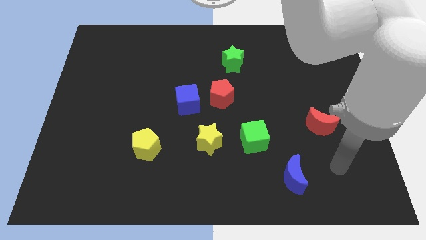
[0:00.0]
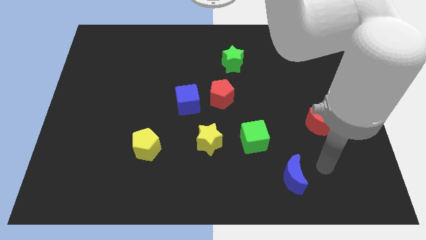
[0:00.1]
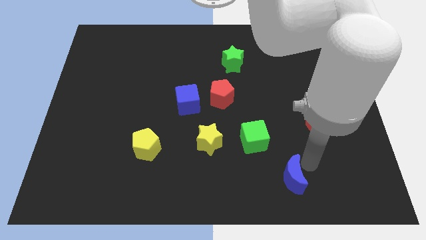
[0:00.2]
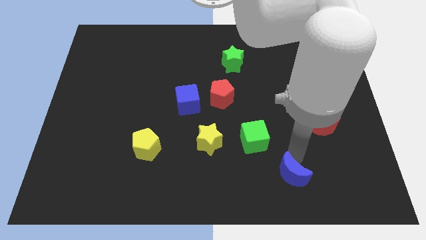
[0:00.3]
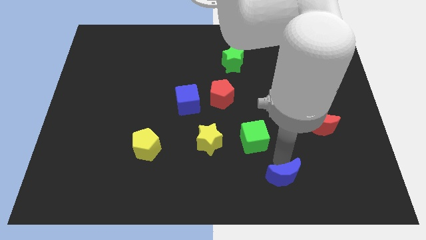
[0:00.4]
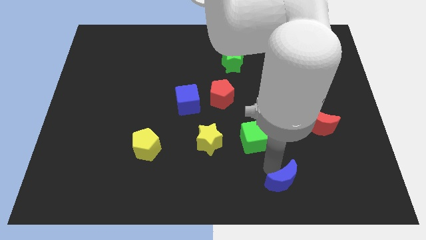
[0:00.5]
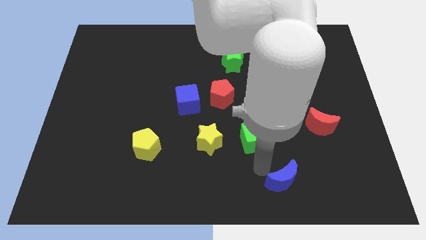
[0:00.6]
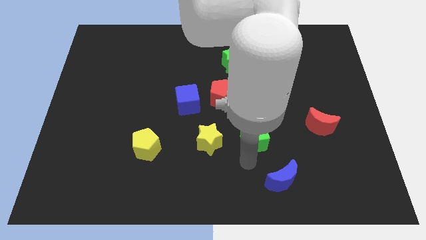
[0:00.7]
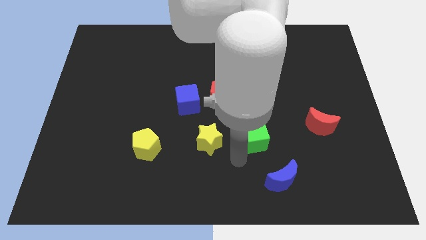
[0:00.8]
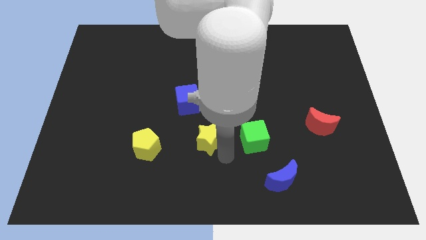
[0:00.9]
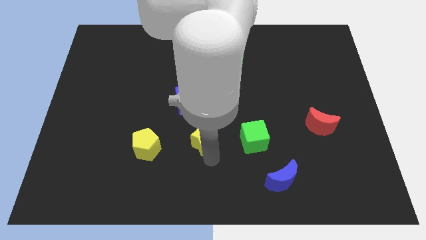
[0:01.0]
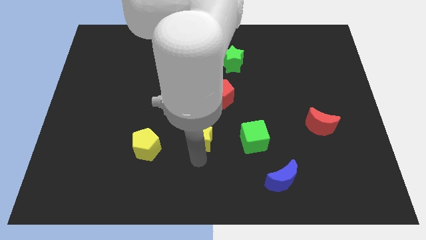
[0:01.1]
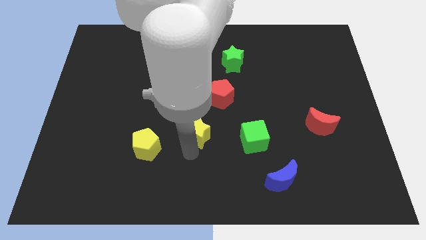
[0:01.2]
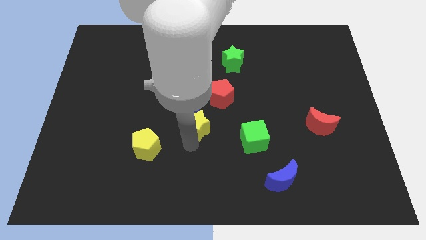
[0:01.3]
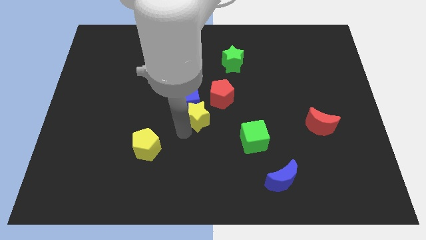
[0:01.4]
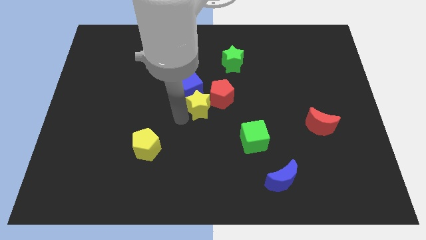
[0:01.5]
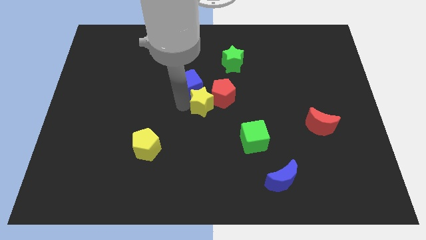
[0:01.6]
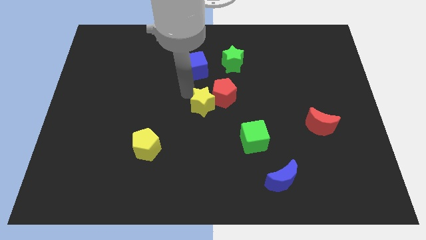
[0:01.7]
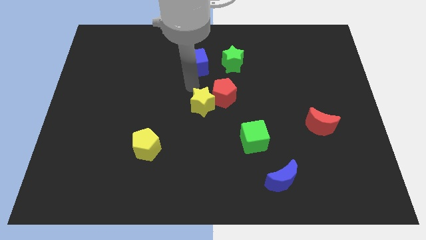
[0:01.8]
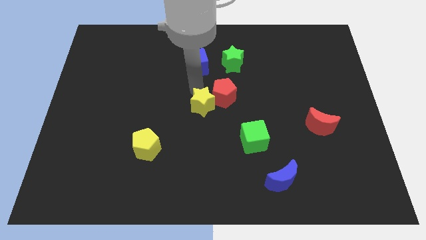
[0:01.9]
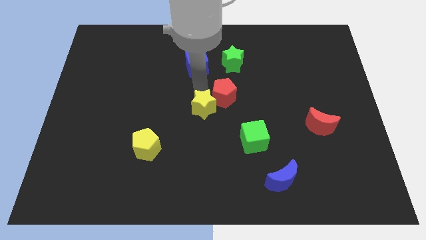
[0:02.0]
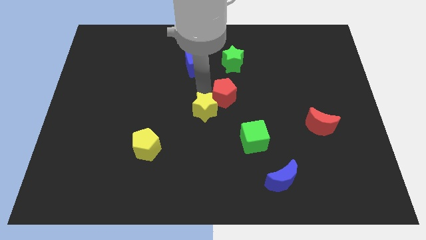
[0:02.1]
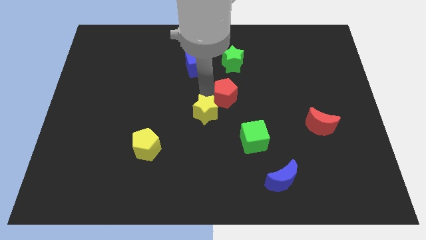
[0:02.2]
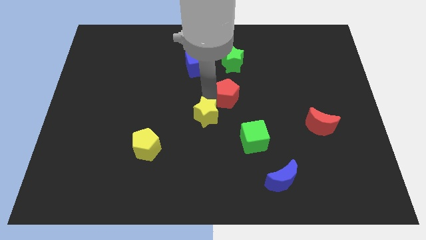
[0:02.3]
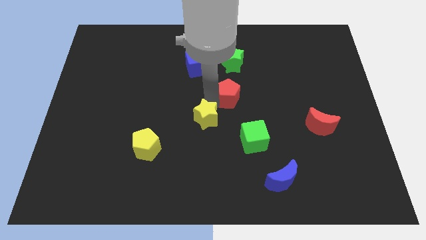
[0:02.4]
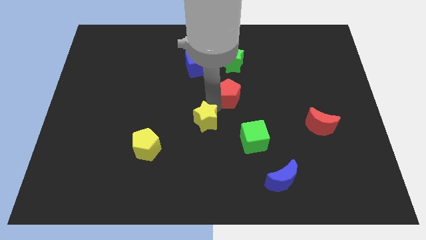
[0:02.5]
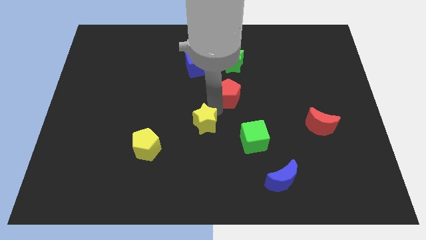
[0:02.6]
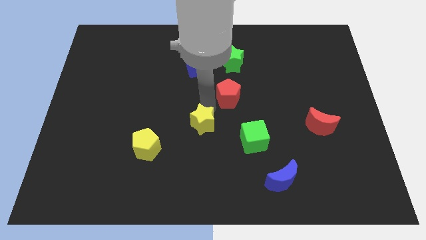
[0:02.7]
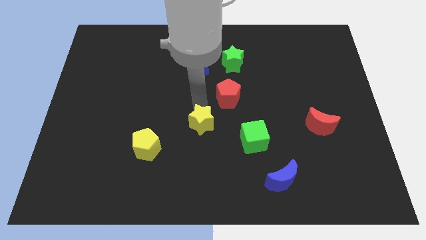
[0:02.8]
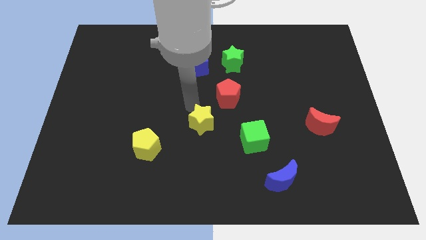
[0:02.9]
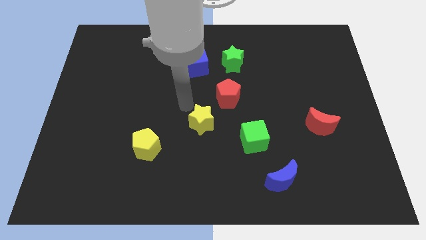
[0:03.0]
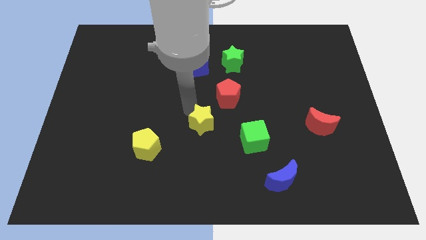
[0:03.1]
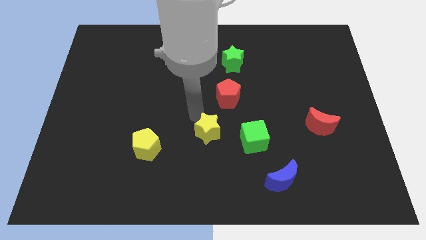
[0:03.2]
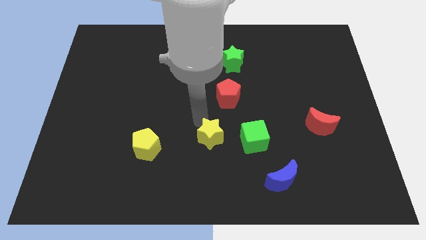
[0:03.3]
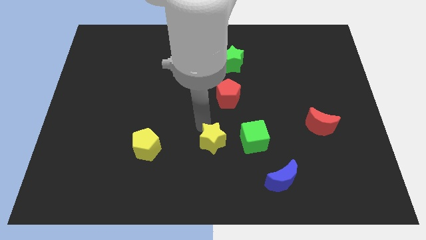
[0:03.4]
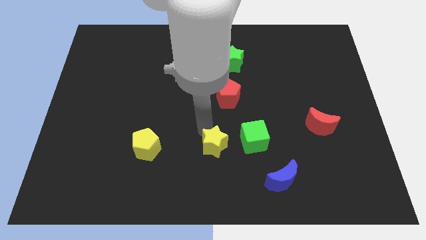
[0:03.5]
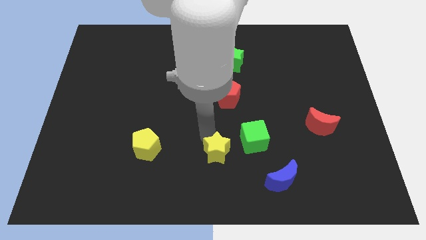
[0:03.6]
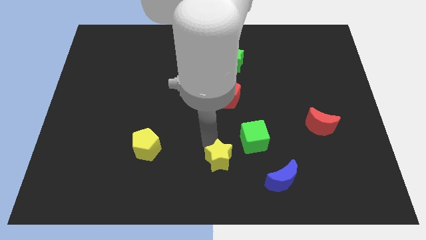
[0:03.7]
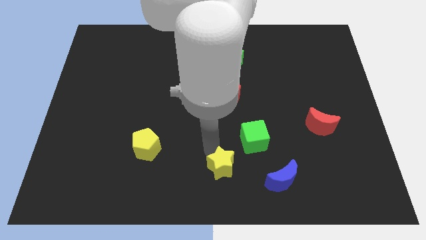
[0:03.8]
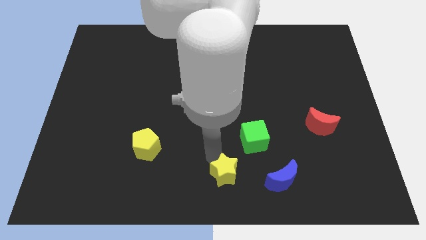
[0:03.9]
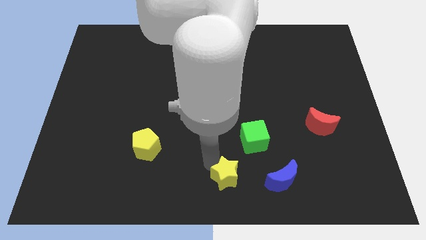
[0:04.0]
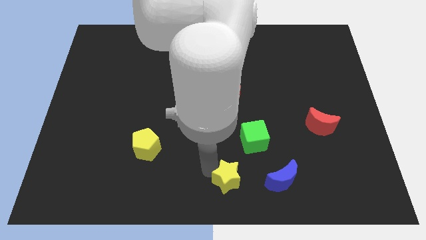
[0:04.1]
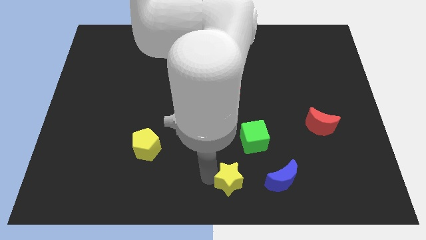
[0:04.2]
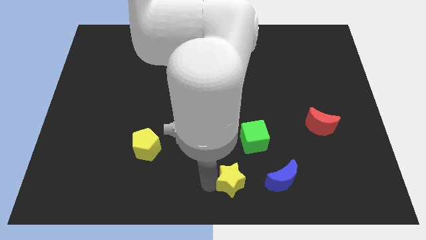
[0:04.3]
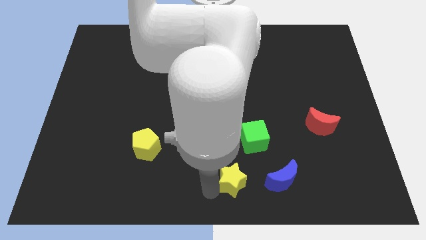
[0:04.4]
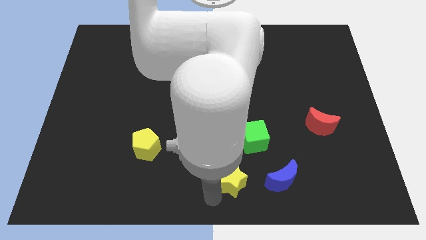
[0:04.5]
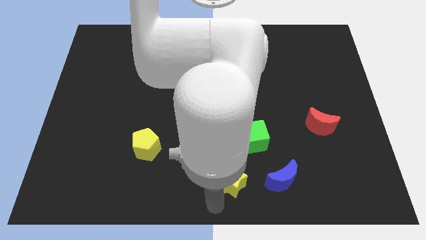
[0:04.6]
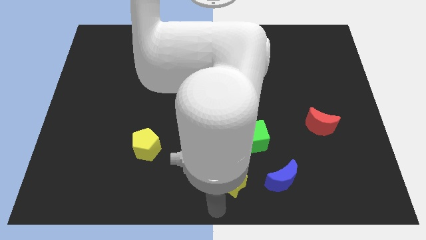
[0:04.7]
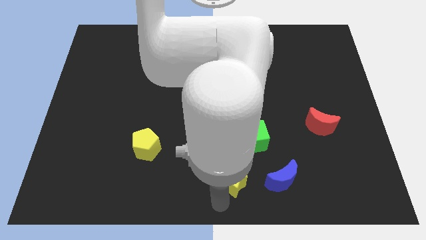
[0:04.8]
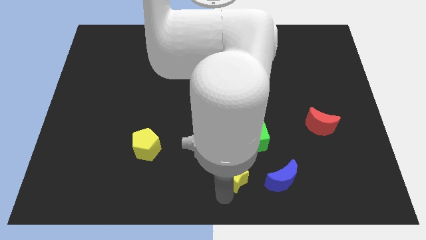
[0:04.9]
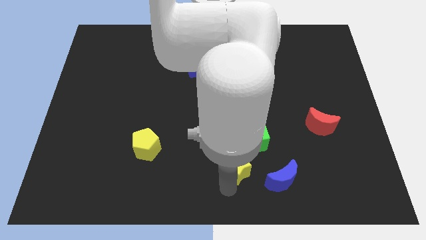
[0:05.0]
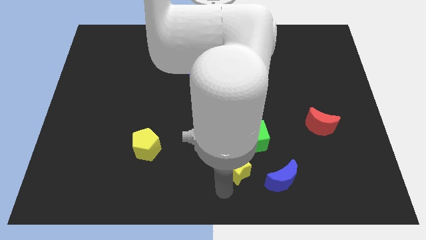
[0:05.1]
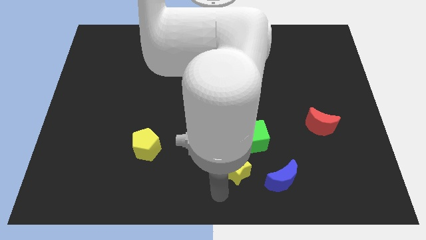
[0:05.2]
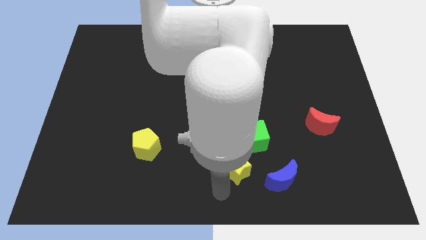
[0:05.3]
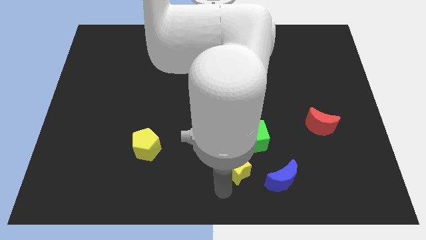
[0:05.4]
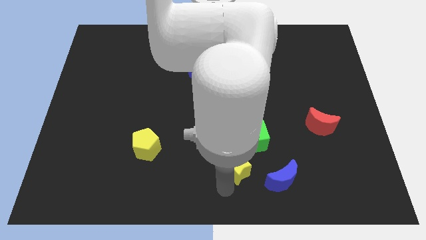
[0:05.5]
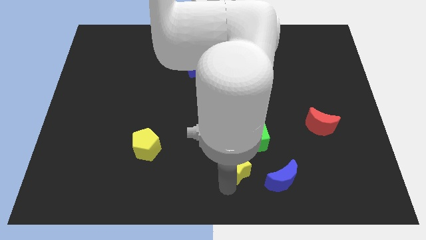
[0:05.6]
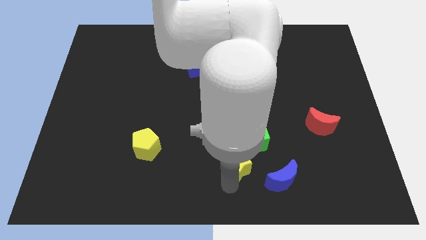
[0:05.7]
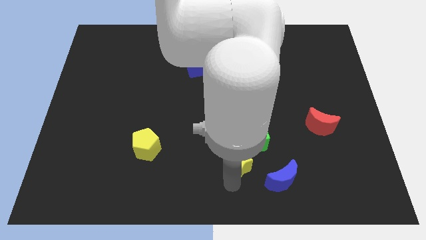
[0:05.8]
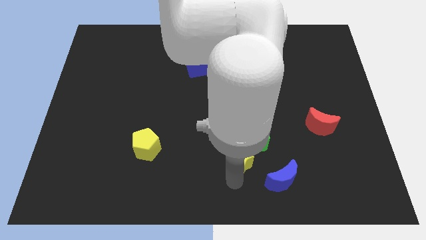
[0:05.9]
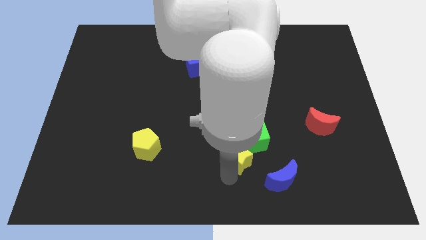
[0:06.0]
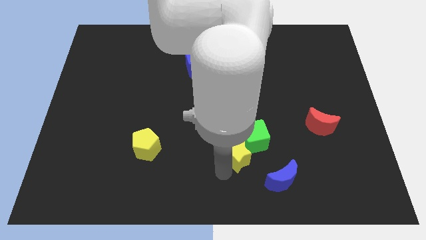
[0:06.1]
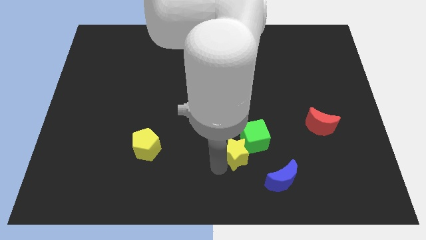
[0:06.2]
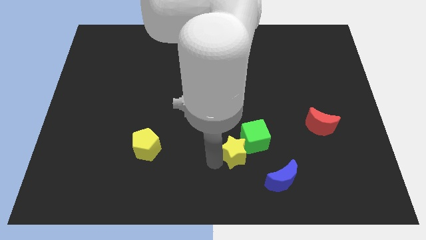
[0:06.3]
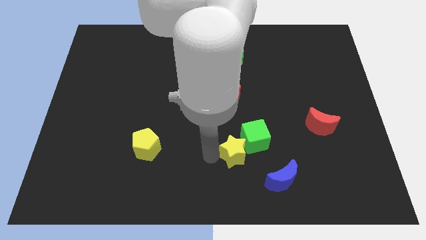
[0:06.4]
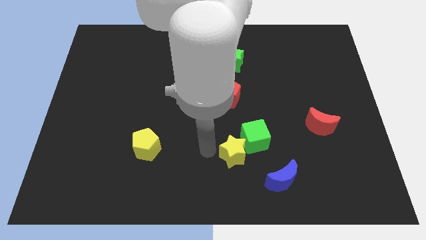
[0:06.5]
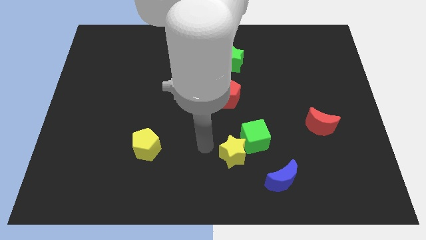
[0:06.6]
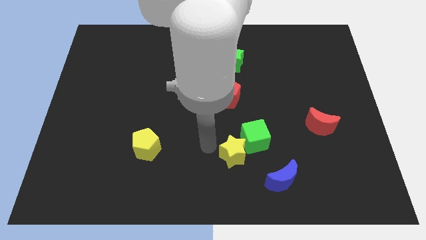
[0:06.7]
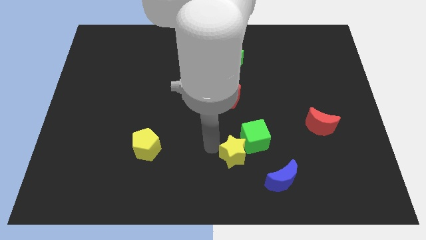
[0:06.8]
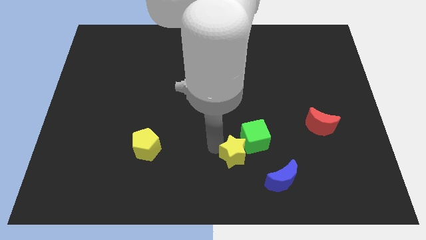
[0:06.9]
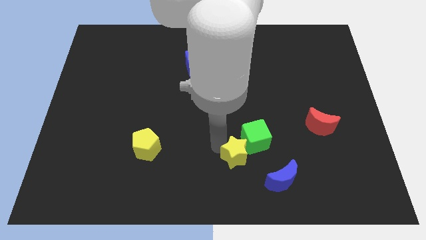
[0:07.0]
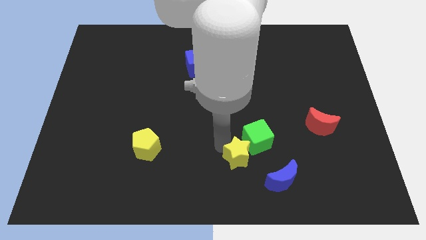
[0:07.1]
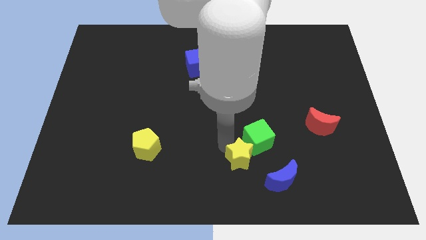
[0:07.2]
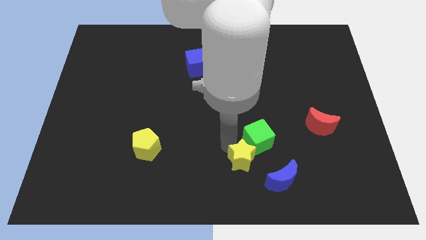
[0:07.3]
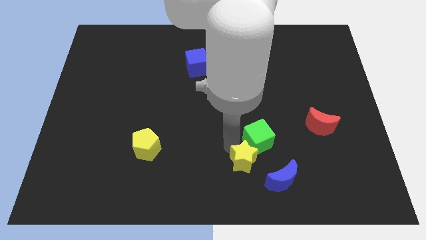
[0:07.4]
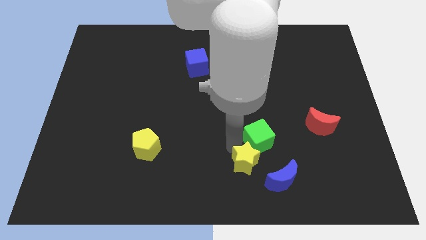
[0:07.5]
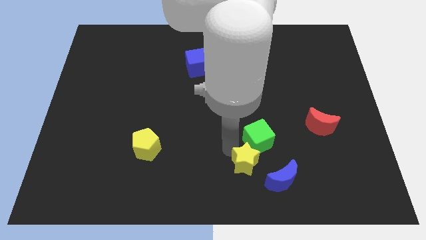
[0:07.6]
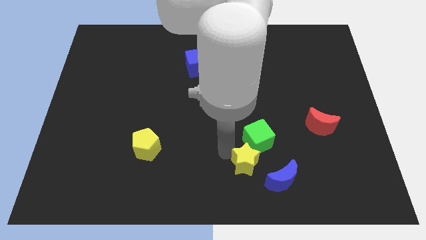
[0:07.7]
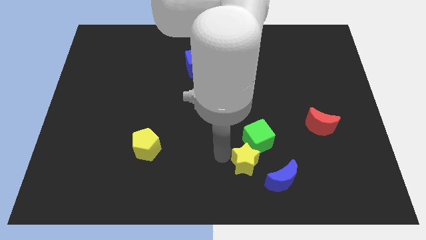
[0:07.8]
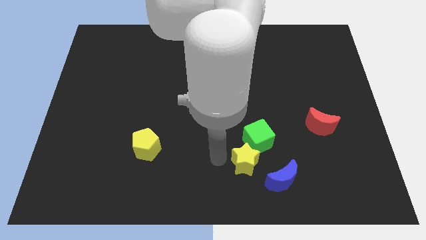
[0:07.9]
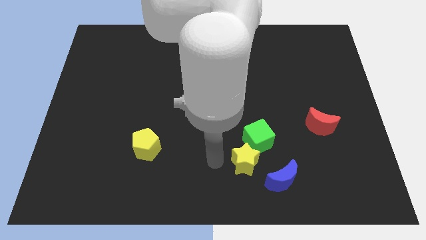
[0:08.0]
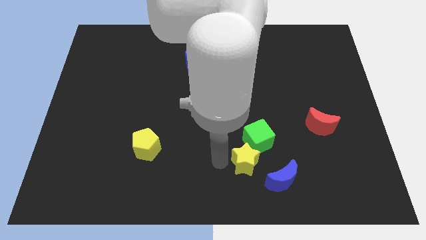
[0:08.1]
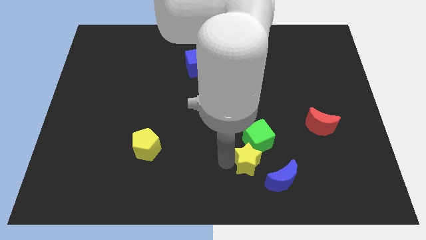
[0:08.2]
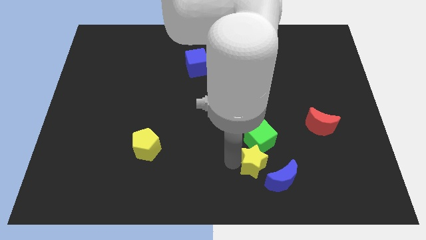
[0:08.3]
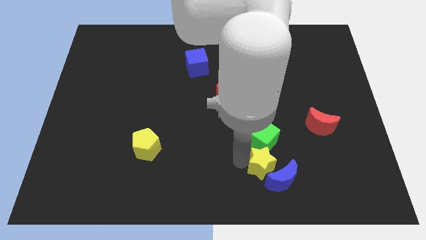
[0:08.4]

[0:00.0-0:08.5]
put the yellow star towards the blue moon
